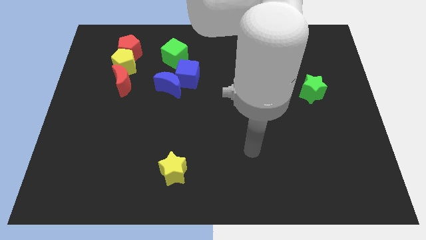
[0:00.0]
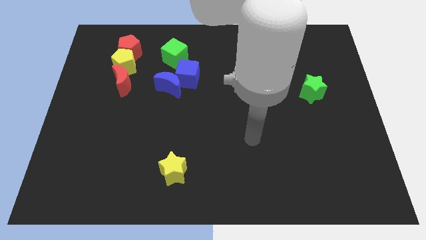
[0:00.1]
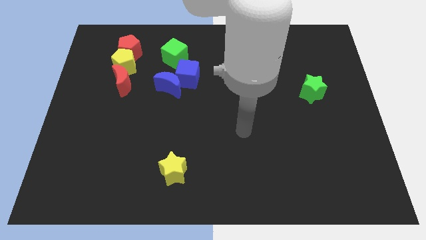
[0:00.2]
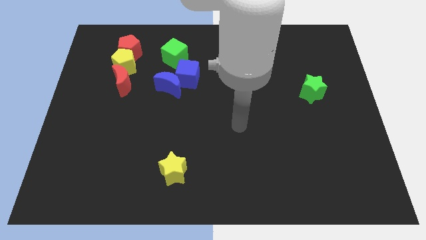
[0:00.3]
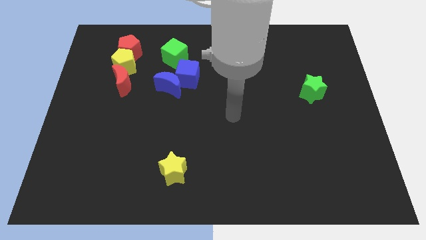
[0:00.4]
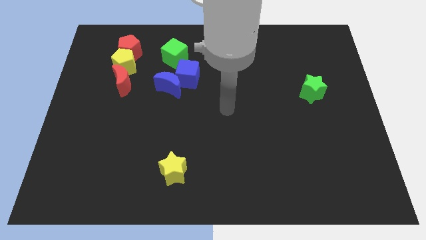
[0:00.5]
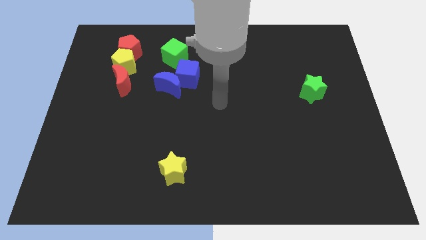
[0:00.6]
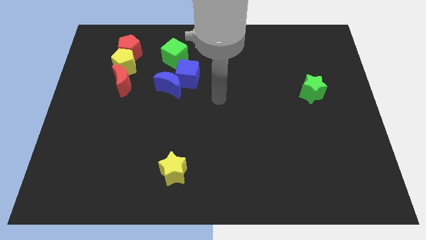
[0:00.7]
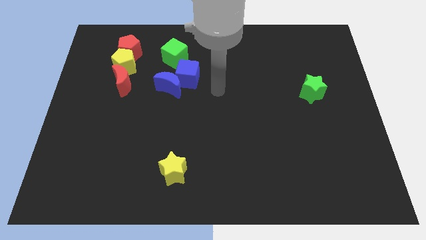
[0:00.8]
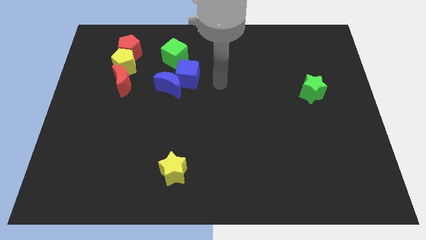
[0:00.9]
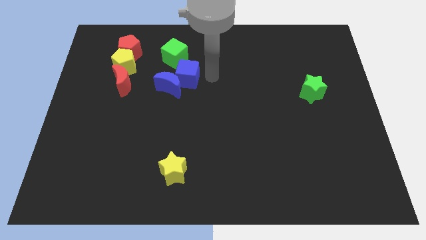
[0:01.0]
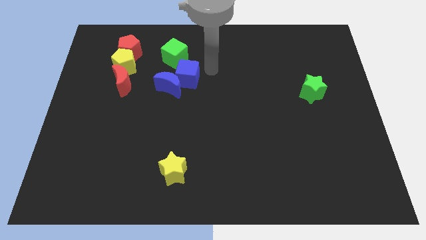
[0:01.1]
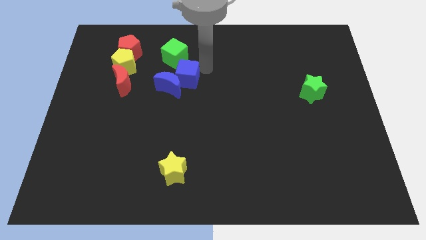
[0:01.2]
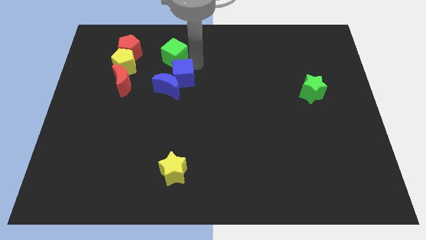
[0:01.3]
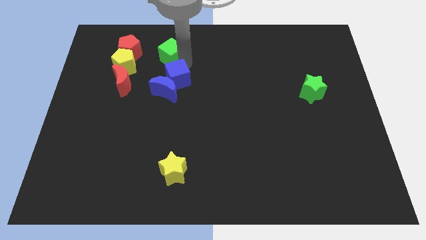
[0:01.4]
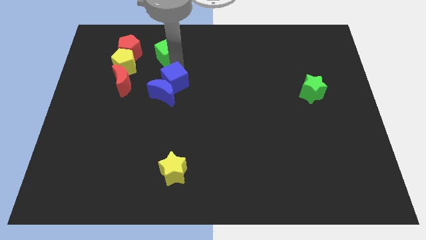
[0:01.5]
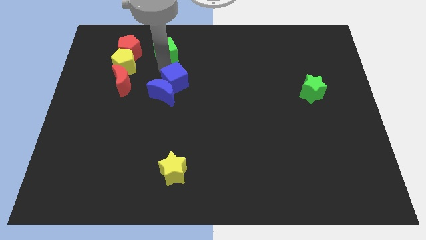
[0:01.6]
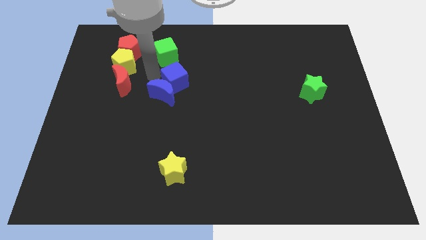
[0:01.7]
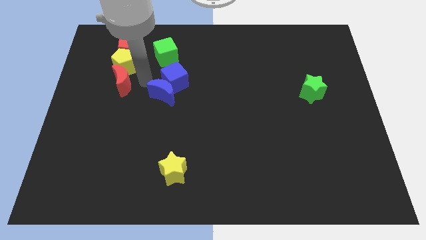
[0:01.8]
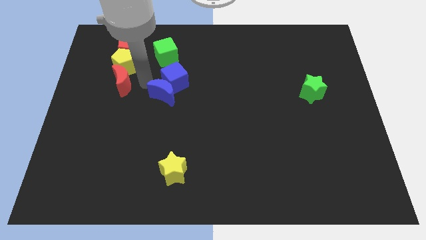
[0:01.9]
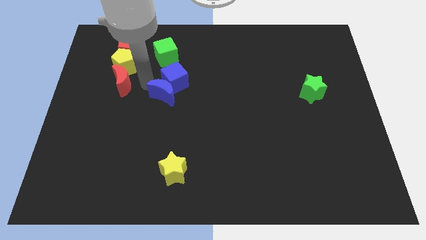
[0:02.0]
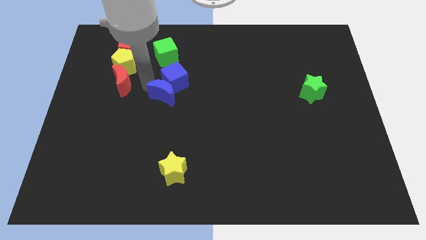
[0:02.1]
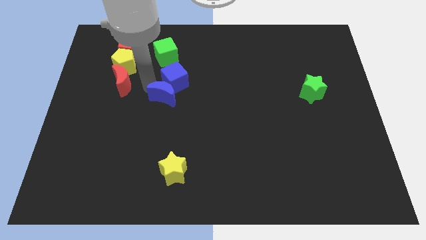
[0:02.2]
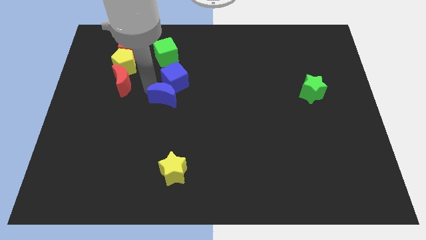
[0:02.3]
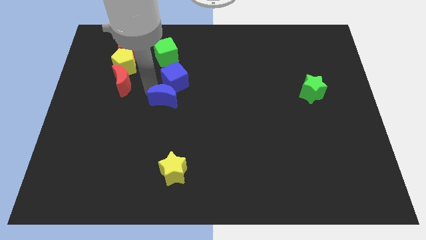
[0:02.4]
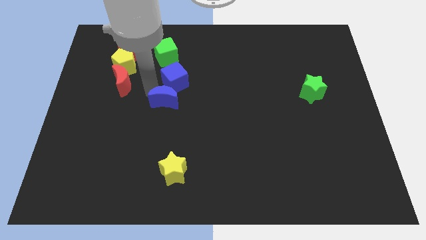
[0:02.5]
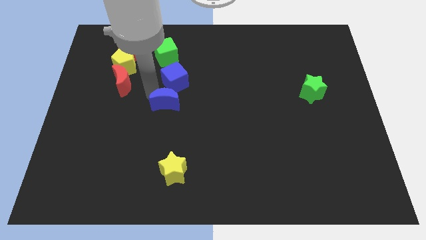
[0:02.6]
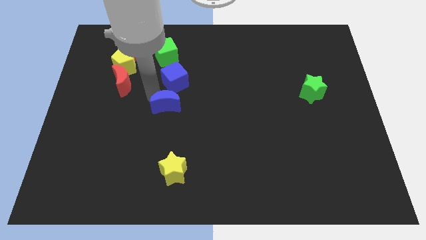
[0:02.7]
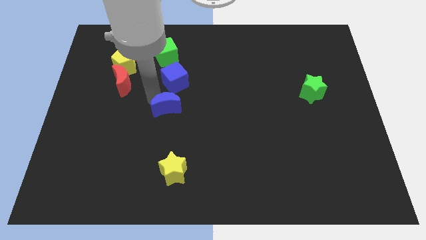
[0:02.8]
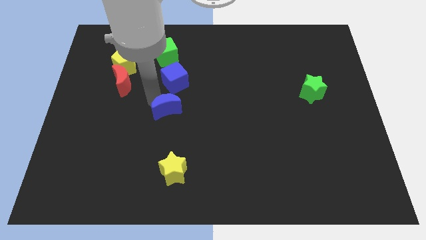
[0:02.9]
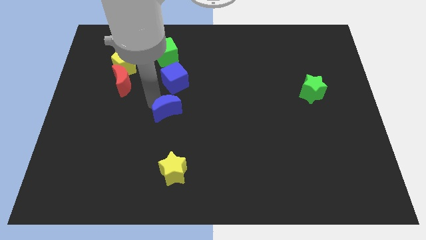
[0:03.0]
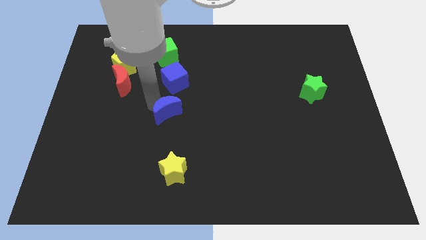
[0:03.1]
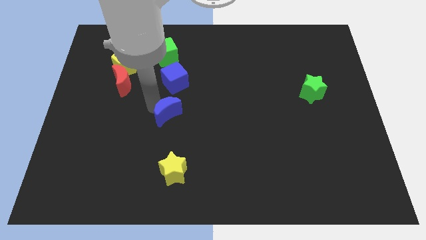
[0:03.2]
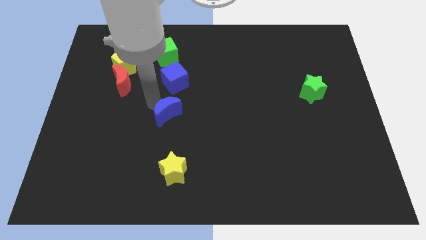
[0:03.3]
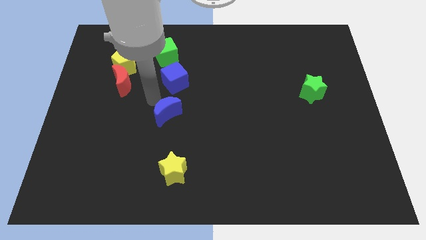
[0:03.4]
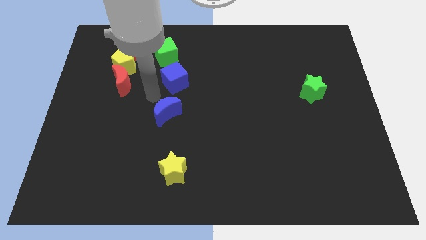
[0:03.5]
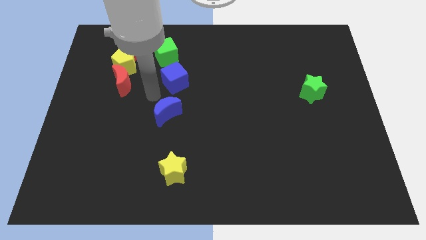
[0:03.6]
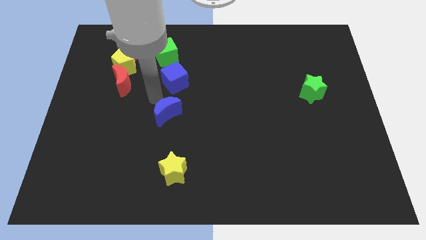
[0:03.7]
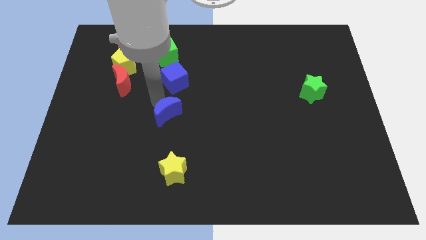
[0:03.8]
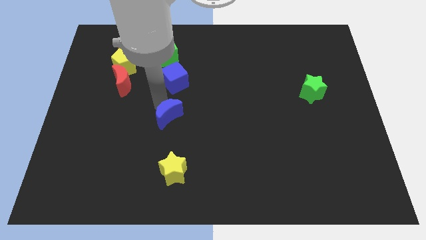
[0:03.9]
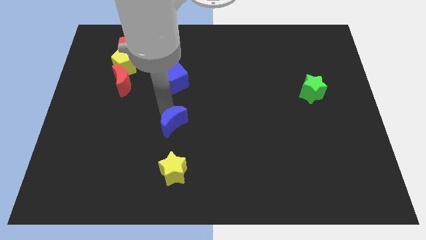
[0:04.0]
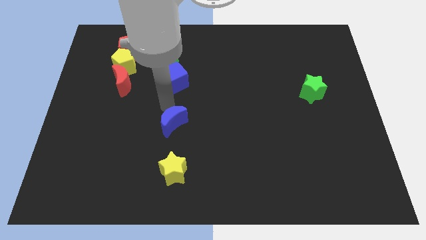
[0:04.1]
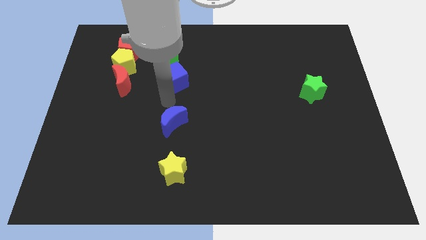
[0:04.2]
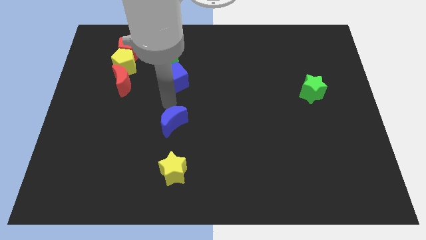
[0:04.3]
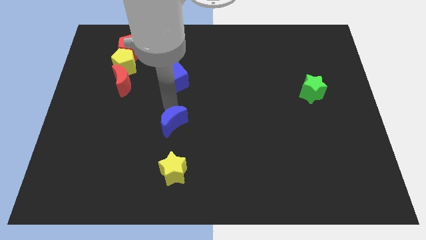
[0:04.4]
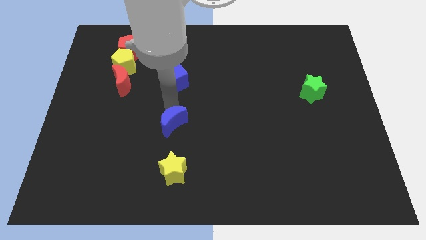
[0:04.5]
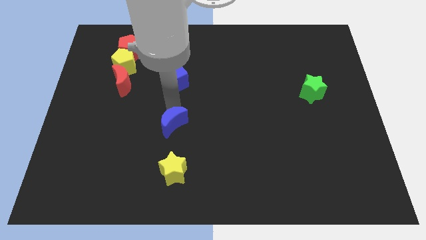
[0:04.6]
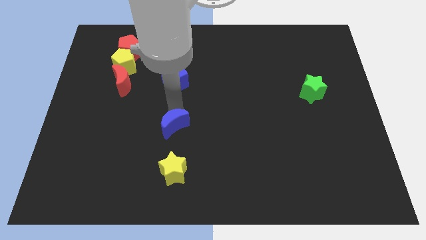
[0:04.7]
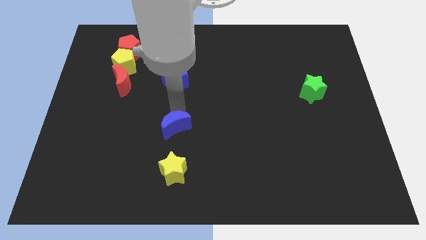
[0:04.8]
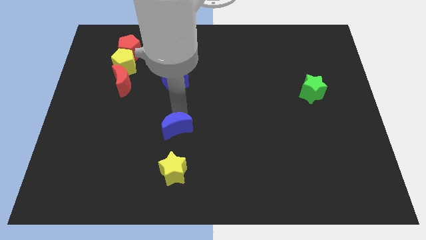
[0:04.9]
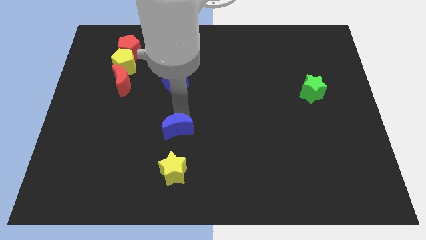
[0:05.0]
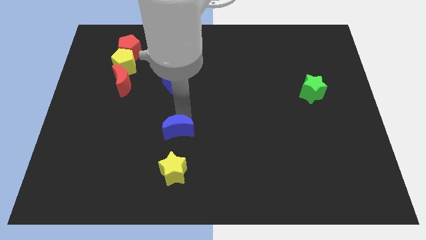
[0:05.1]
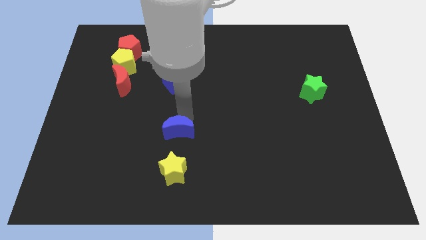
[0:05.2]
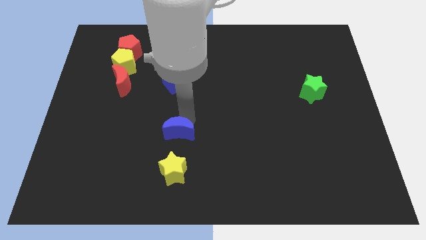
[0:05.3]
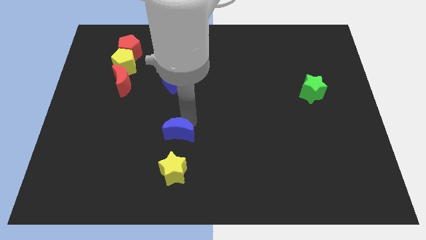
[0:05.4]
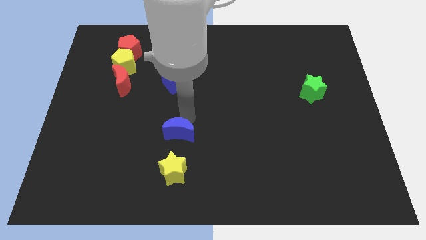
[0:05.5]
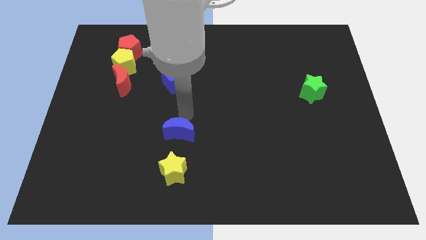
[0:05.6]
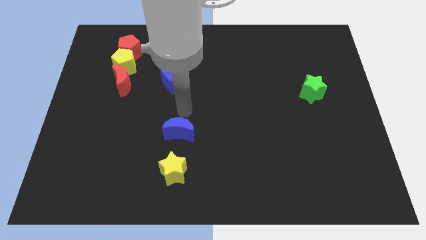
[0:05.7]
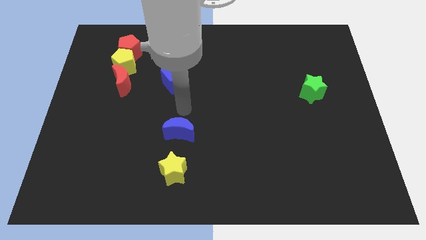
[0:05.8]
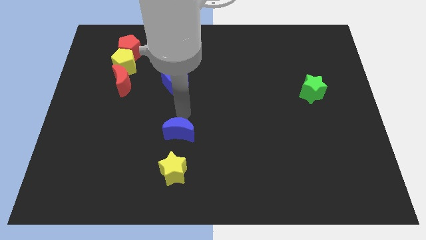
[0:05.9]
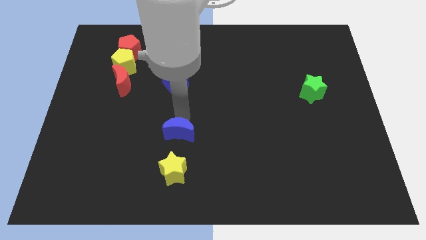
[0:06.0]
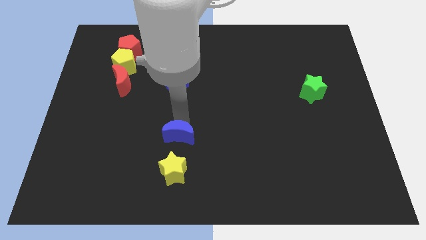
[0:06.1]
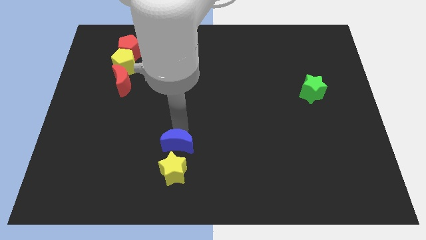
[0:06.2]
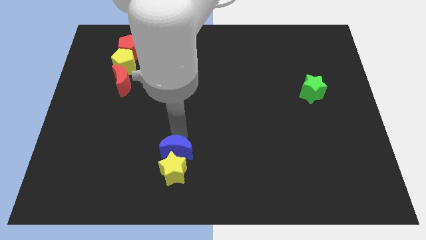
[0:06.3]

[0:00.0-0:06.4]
move the blue moon towards the yellow star

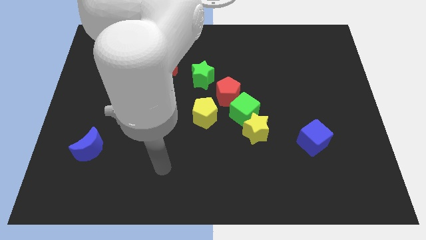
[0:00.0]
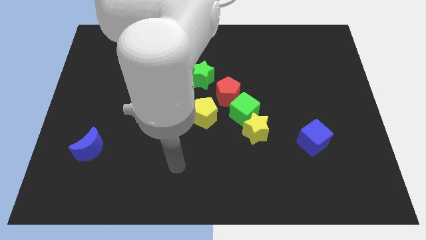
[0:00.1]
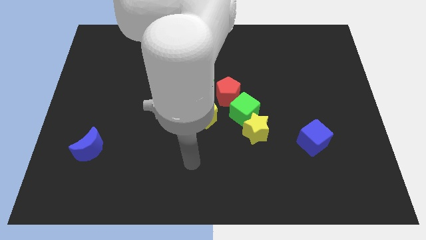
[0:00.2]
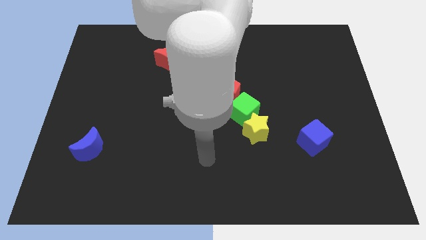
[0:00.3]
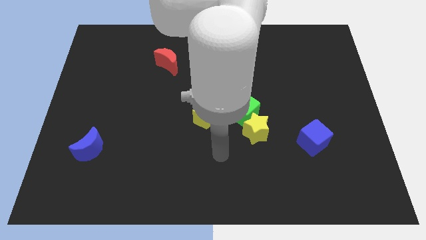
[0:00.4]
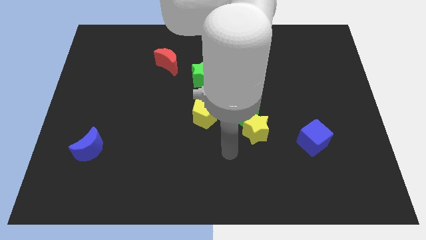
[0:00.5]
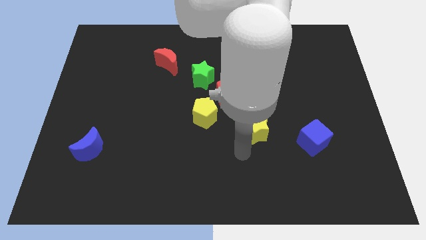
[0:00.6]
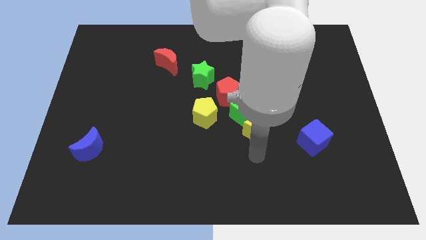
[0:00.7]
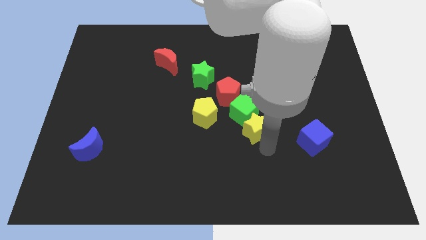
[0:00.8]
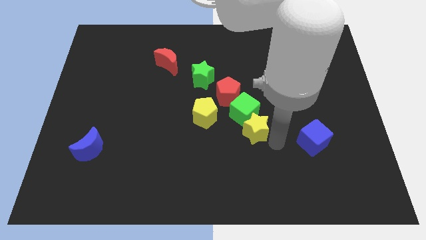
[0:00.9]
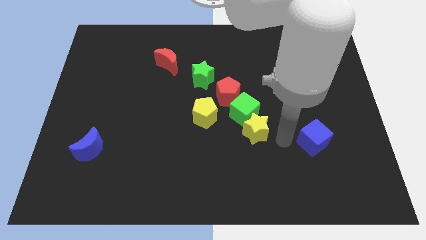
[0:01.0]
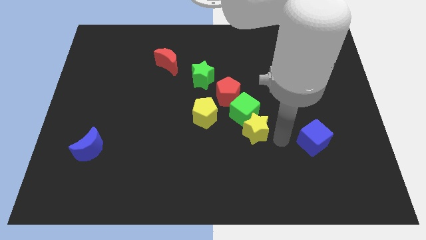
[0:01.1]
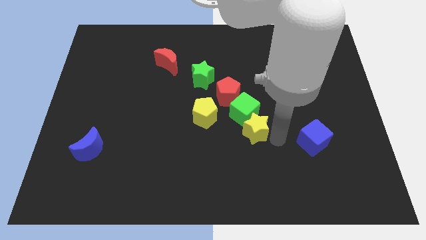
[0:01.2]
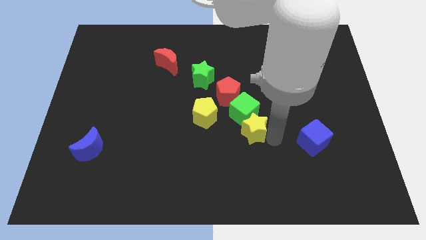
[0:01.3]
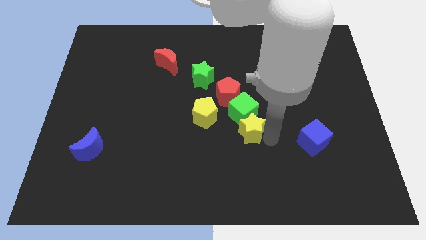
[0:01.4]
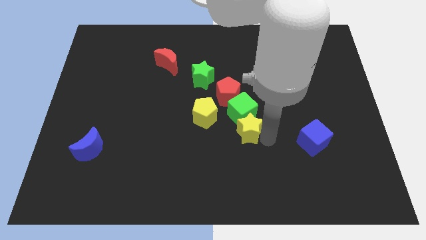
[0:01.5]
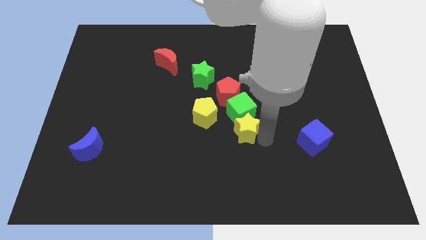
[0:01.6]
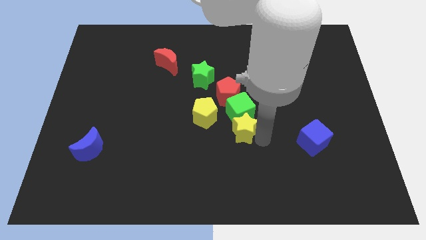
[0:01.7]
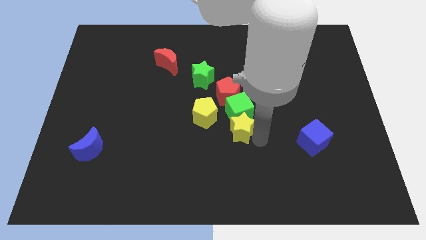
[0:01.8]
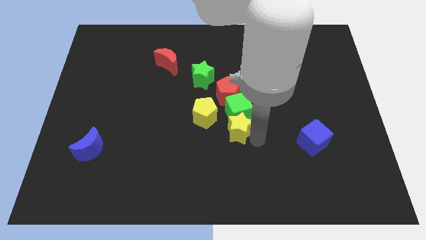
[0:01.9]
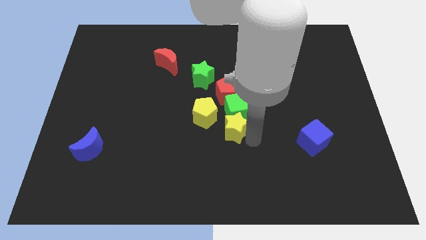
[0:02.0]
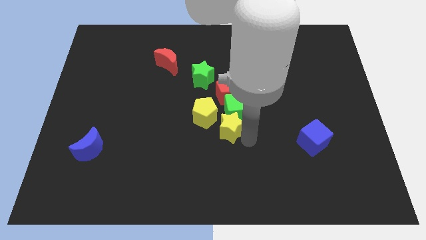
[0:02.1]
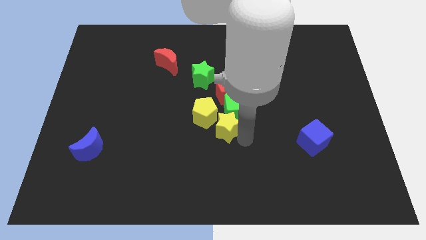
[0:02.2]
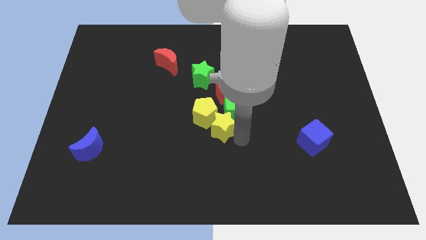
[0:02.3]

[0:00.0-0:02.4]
push the yellow star to the yellow pentagon
